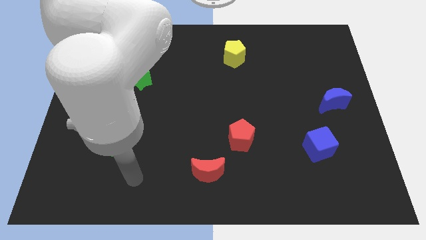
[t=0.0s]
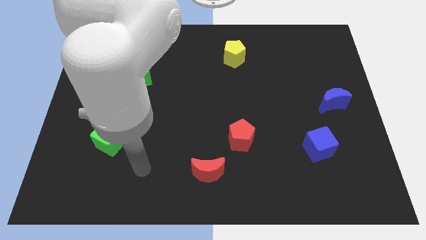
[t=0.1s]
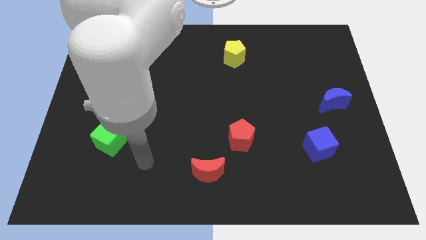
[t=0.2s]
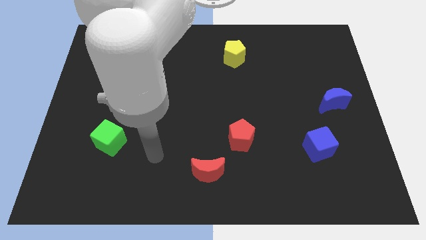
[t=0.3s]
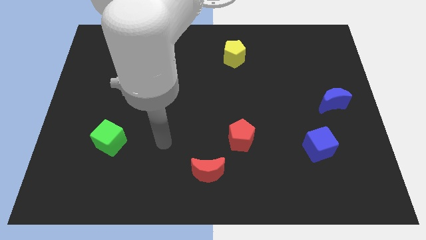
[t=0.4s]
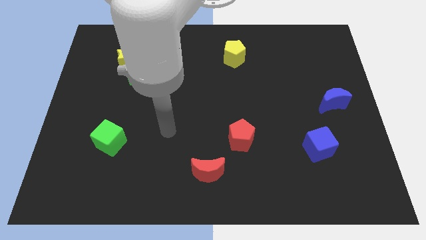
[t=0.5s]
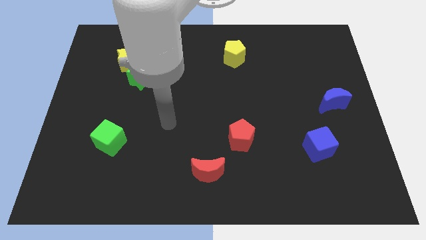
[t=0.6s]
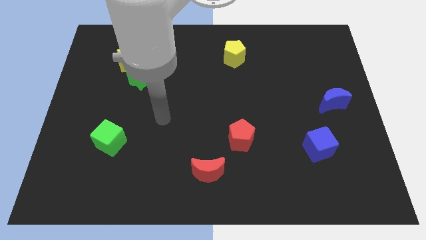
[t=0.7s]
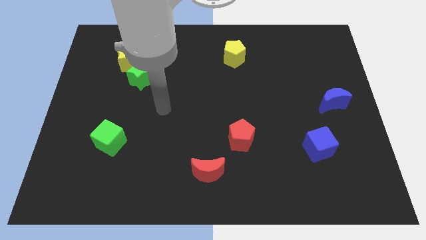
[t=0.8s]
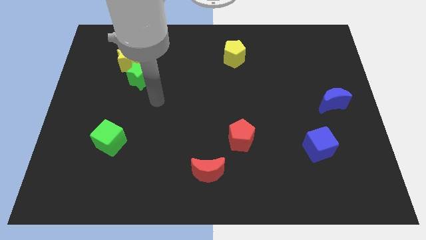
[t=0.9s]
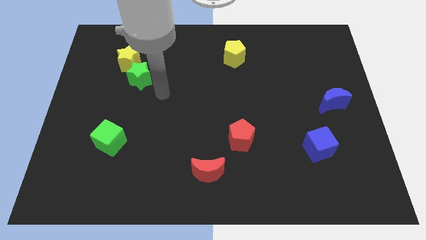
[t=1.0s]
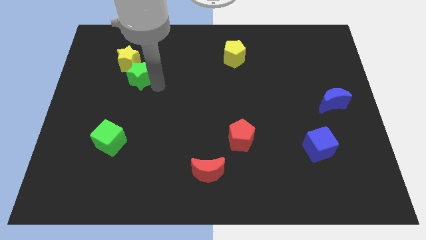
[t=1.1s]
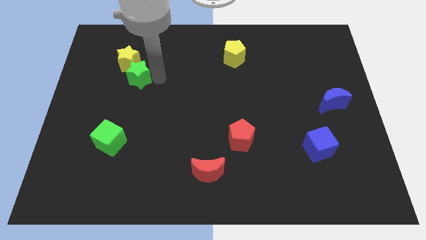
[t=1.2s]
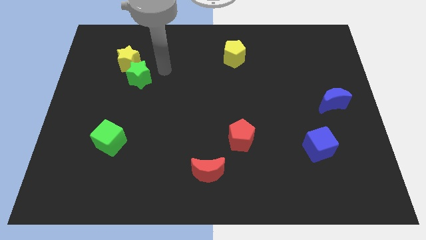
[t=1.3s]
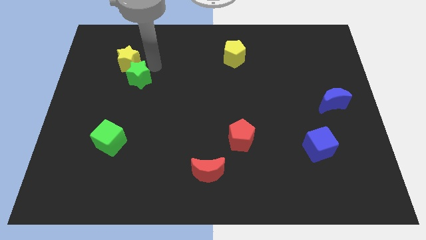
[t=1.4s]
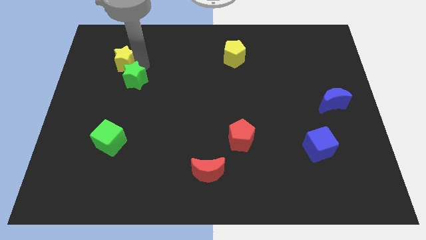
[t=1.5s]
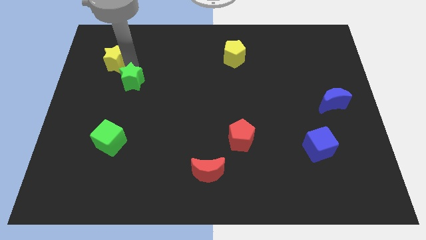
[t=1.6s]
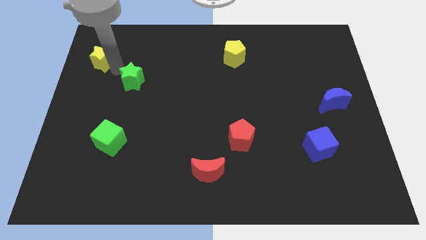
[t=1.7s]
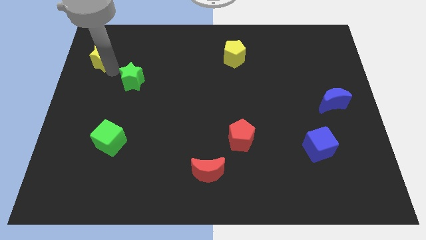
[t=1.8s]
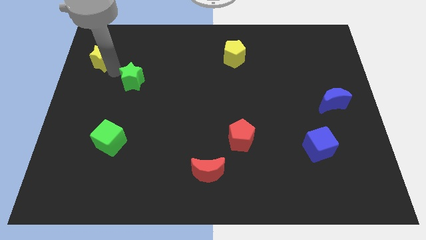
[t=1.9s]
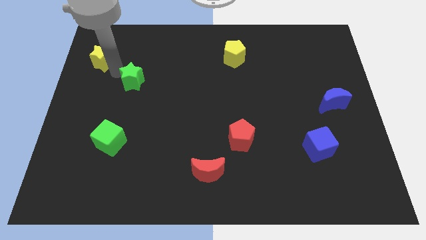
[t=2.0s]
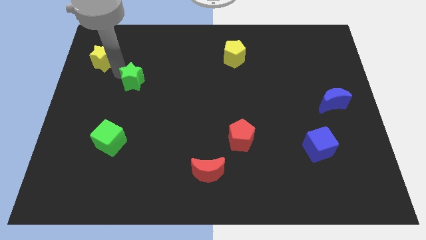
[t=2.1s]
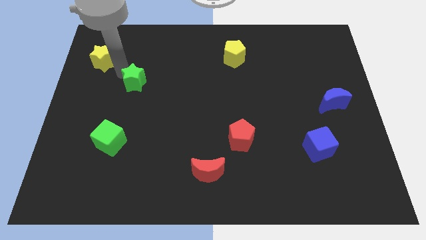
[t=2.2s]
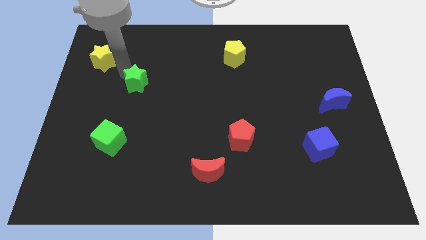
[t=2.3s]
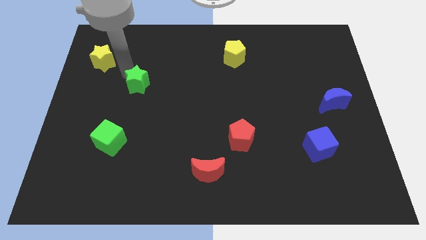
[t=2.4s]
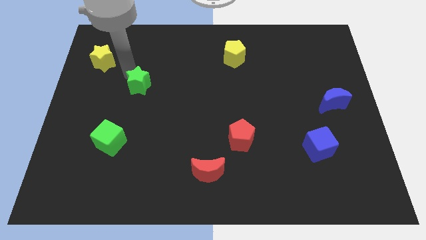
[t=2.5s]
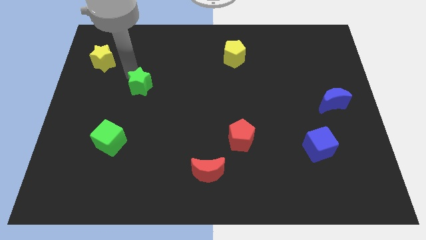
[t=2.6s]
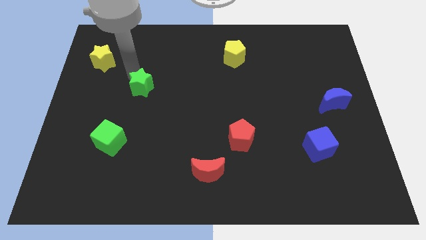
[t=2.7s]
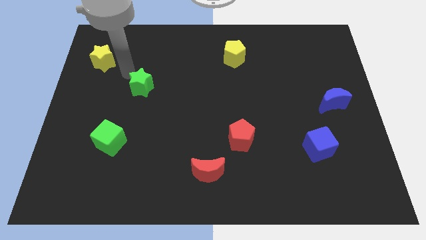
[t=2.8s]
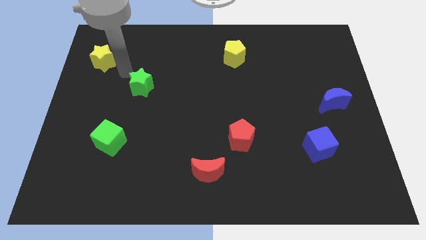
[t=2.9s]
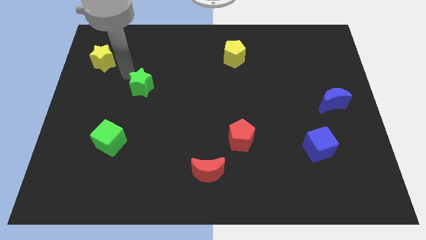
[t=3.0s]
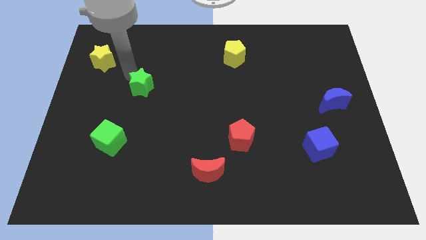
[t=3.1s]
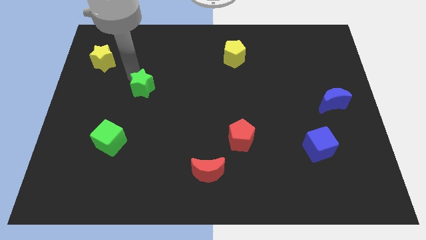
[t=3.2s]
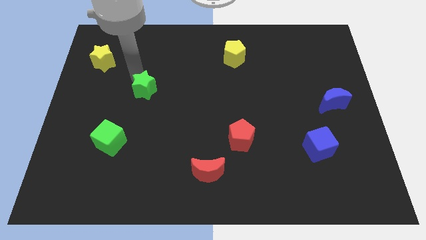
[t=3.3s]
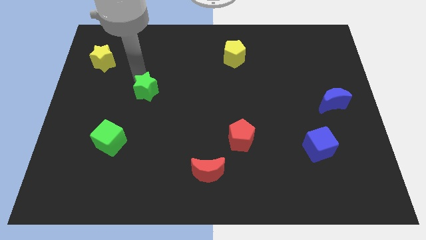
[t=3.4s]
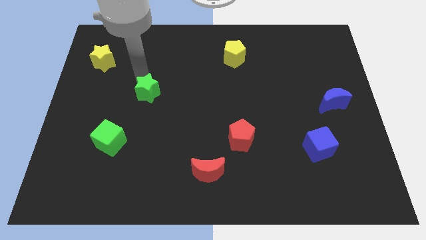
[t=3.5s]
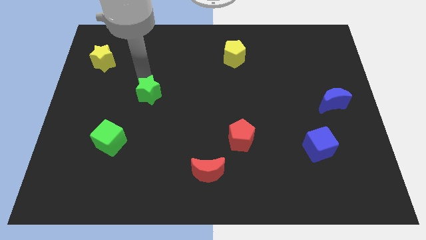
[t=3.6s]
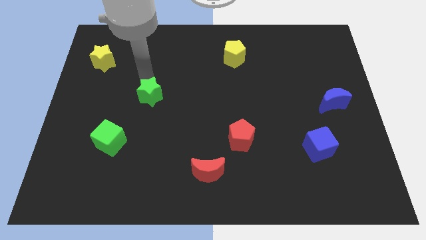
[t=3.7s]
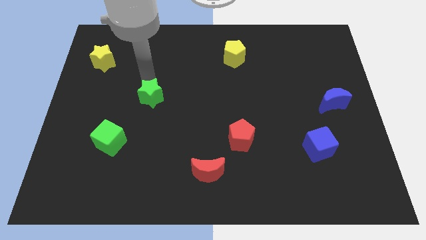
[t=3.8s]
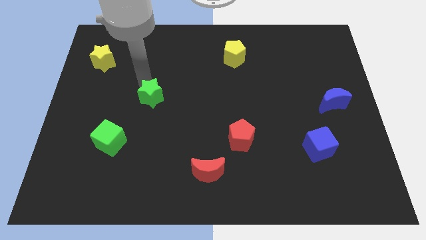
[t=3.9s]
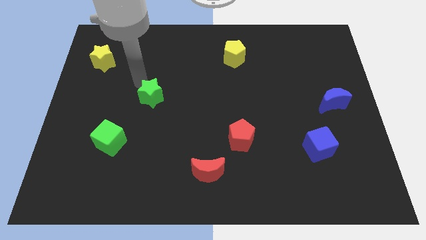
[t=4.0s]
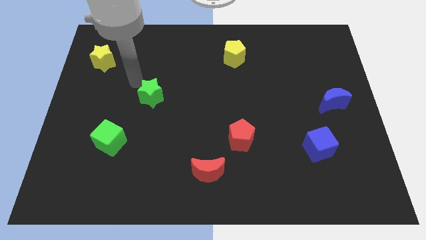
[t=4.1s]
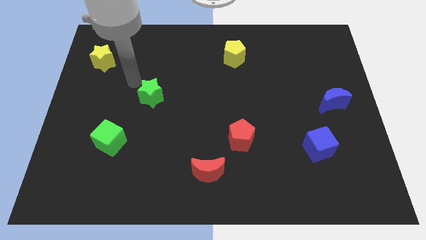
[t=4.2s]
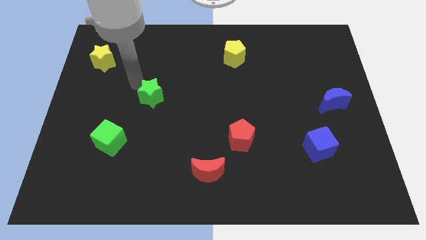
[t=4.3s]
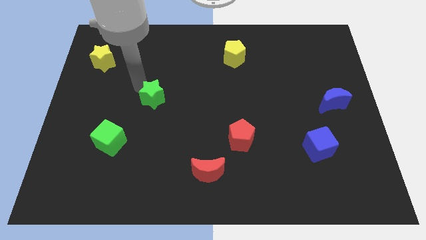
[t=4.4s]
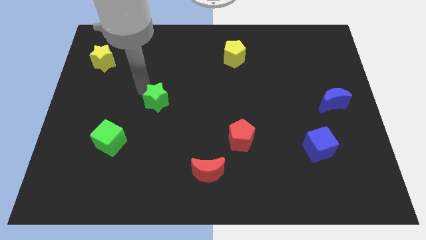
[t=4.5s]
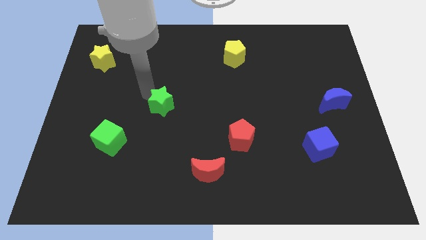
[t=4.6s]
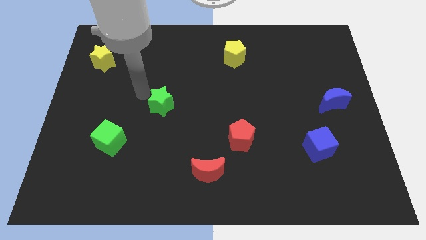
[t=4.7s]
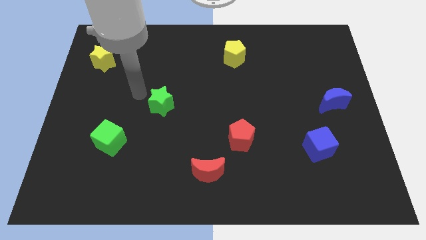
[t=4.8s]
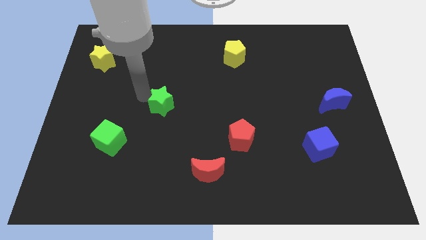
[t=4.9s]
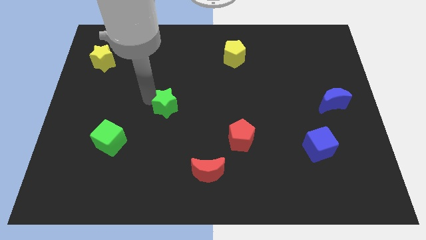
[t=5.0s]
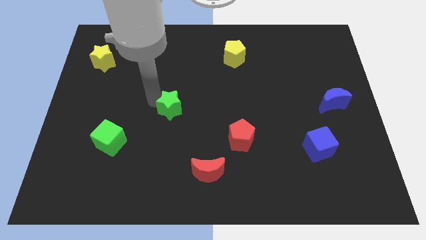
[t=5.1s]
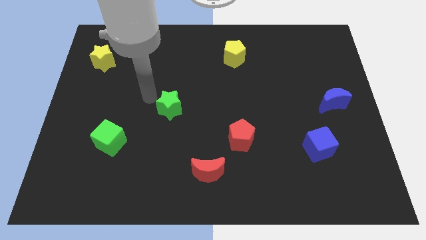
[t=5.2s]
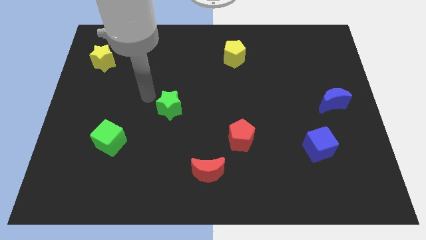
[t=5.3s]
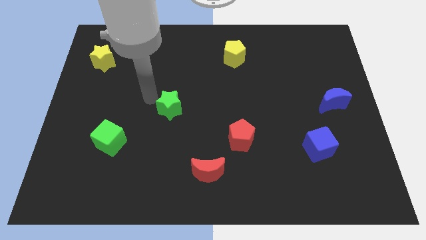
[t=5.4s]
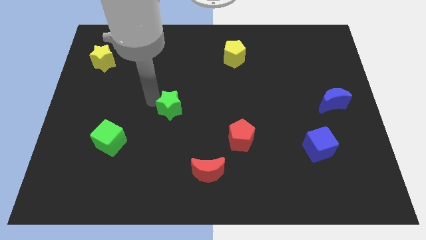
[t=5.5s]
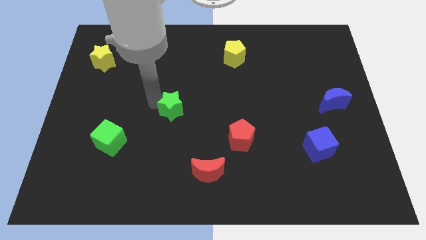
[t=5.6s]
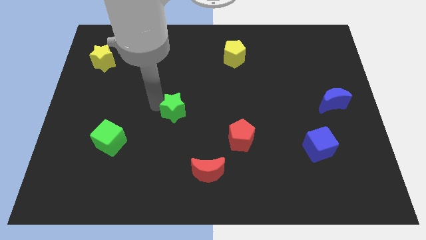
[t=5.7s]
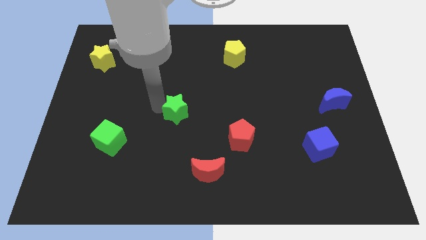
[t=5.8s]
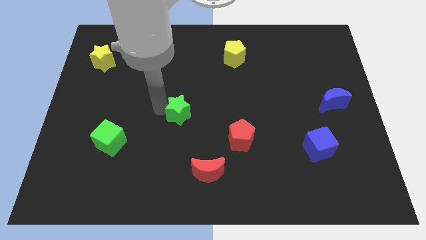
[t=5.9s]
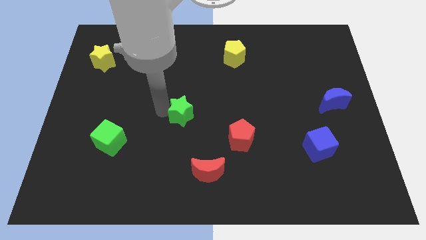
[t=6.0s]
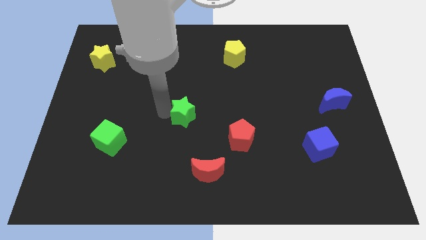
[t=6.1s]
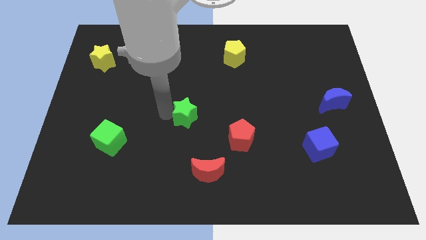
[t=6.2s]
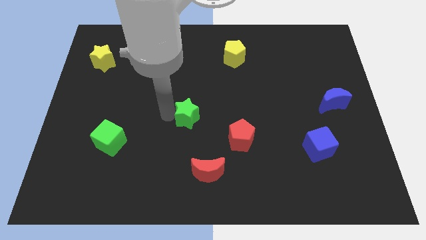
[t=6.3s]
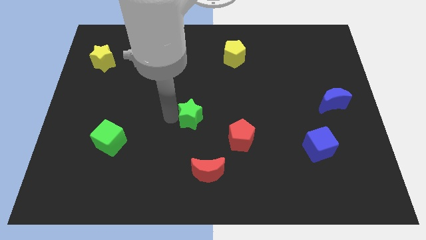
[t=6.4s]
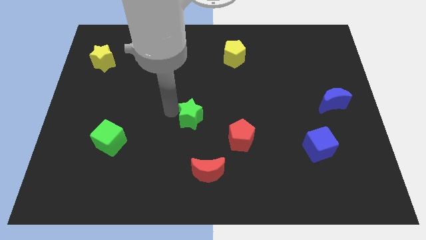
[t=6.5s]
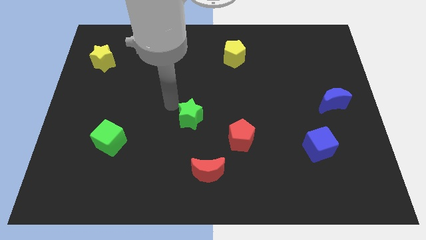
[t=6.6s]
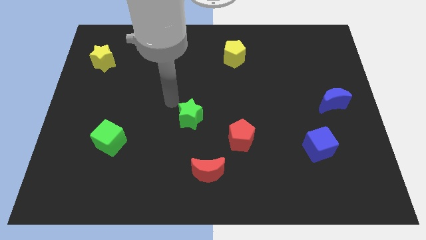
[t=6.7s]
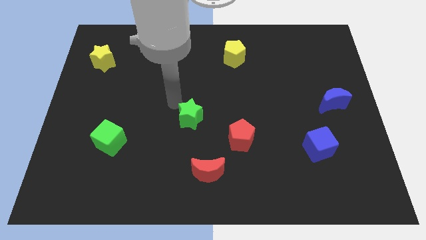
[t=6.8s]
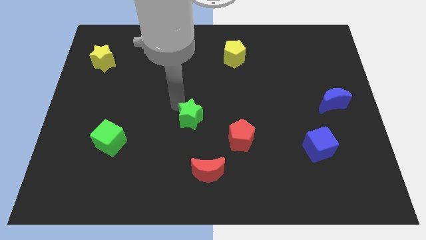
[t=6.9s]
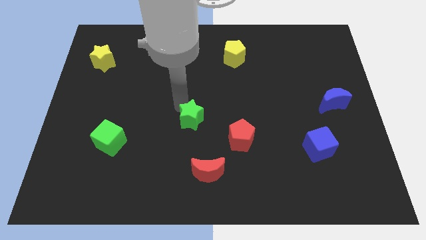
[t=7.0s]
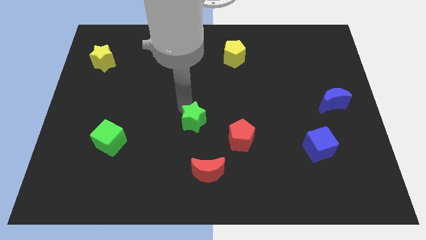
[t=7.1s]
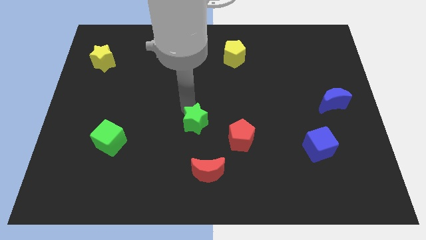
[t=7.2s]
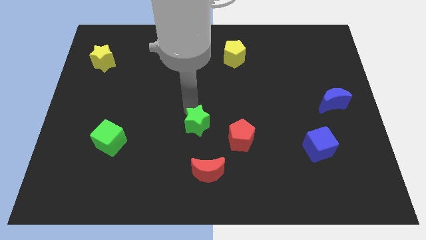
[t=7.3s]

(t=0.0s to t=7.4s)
push the green star downwards and to the right

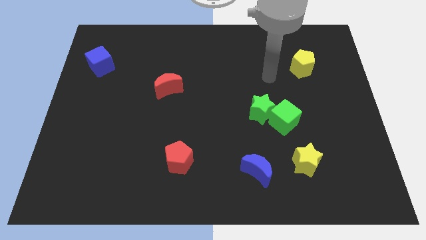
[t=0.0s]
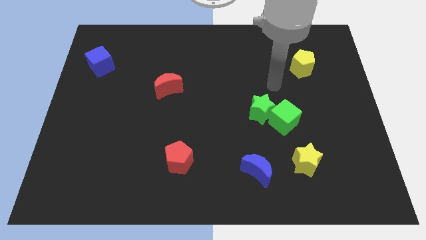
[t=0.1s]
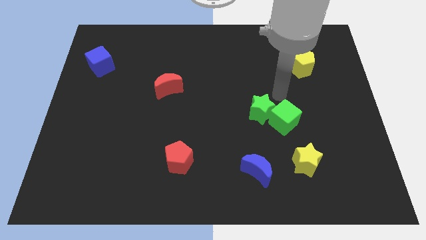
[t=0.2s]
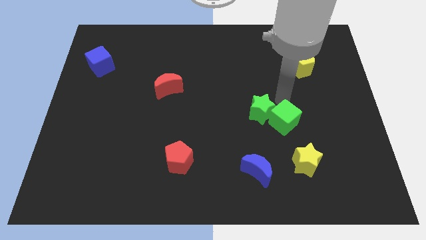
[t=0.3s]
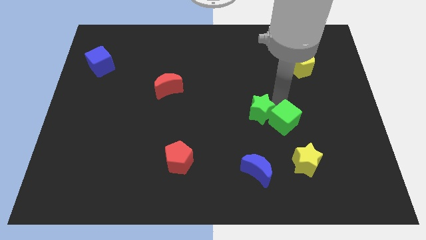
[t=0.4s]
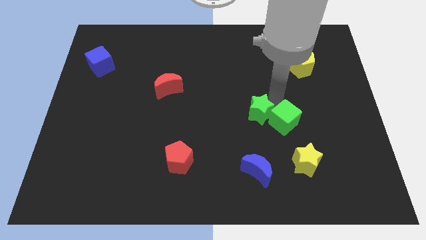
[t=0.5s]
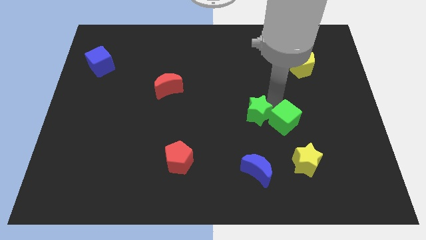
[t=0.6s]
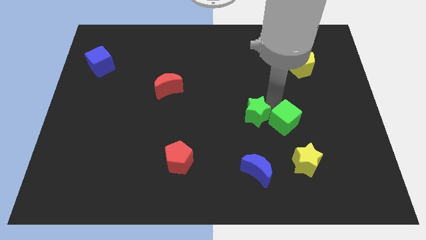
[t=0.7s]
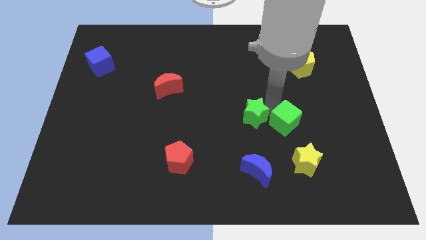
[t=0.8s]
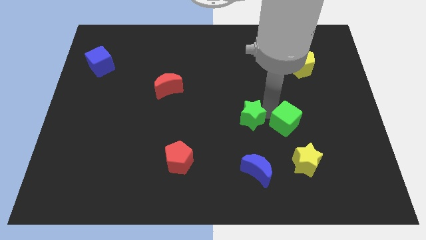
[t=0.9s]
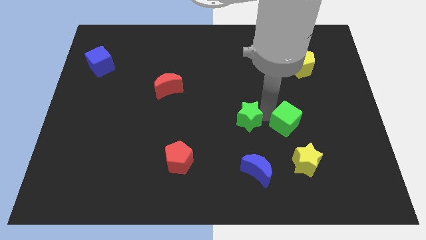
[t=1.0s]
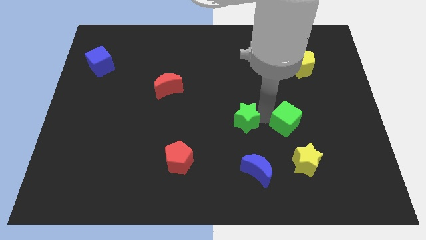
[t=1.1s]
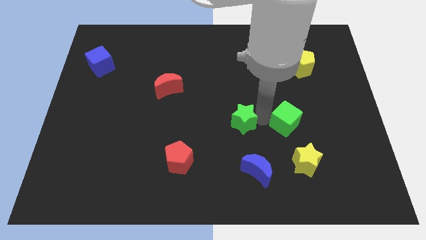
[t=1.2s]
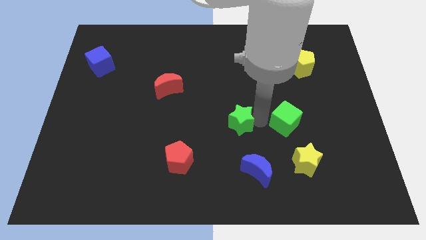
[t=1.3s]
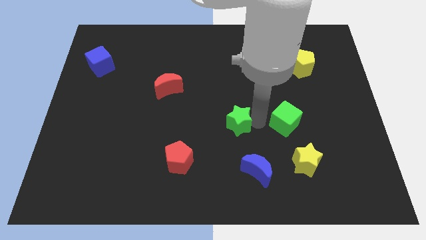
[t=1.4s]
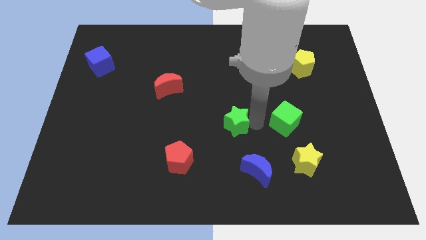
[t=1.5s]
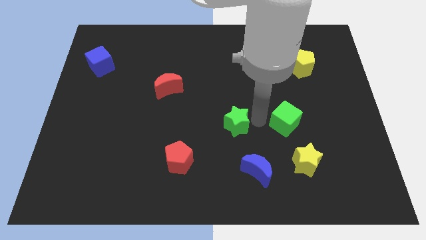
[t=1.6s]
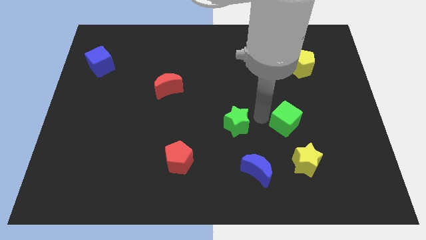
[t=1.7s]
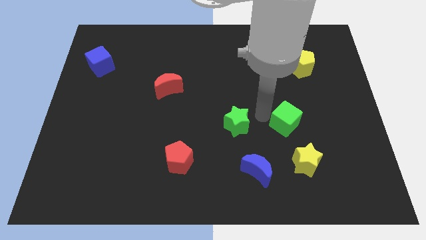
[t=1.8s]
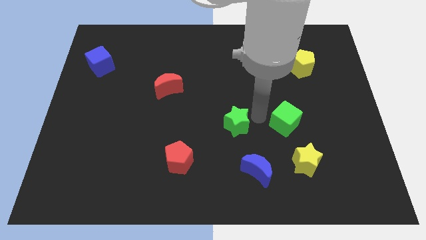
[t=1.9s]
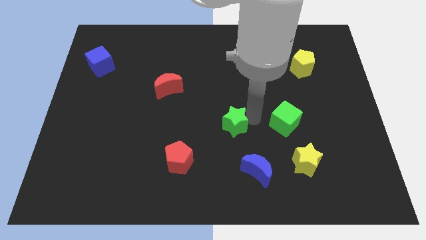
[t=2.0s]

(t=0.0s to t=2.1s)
slightly push the green star down and to the left
